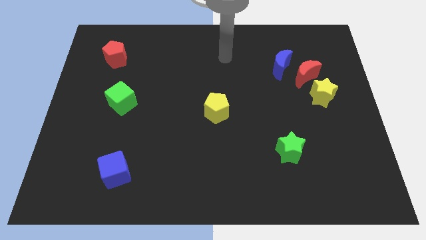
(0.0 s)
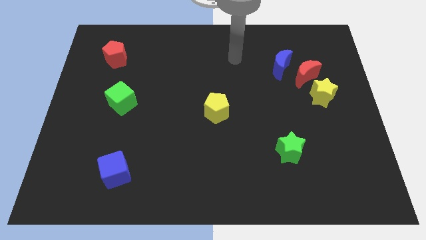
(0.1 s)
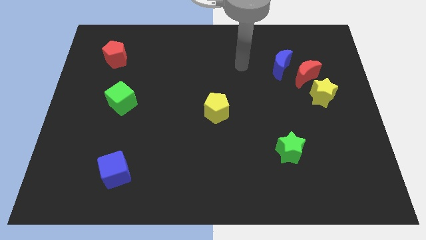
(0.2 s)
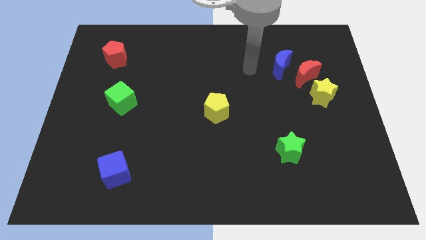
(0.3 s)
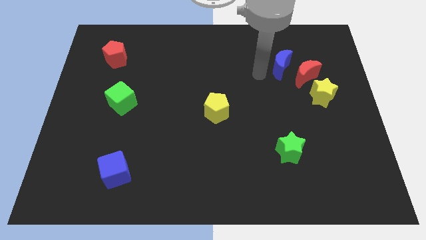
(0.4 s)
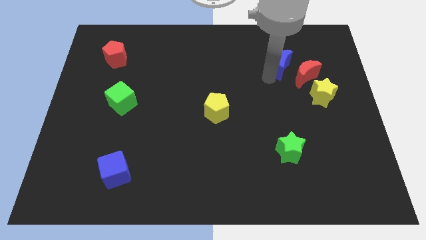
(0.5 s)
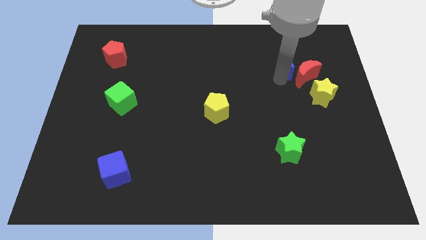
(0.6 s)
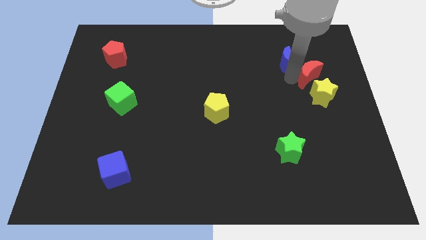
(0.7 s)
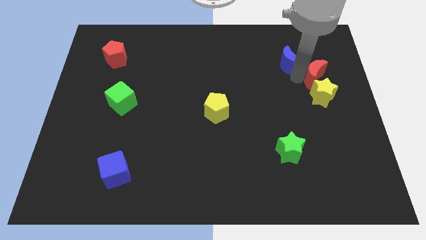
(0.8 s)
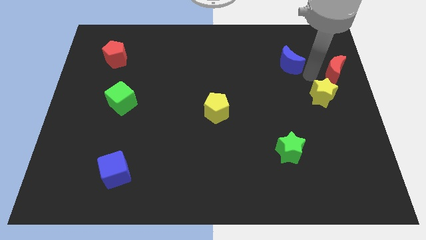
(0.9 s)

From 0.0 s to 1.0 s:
separate the blue moon from the red moon

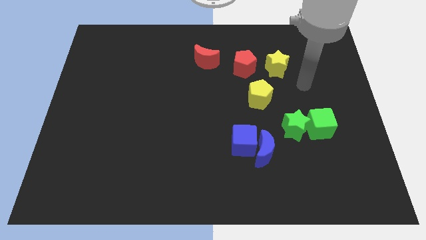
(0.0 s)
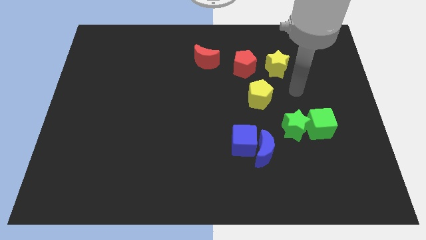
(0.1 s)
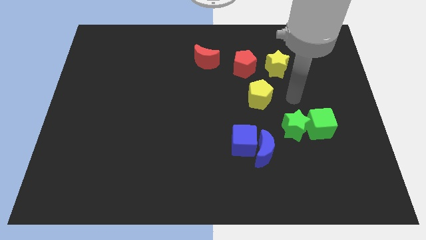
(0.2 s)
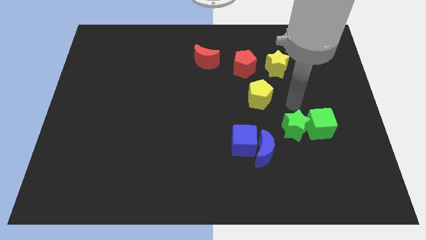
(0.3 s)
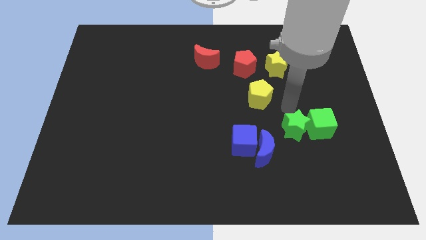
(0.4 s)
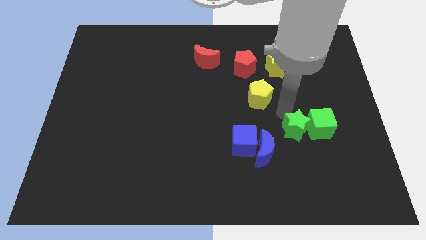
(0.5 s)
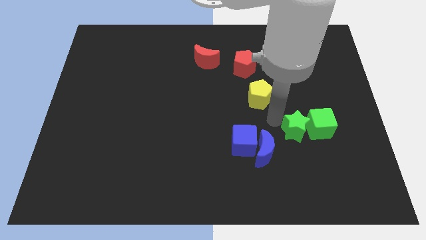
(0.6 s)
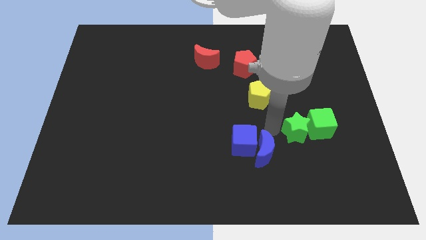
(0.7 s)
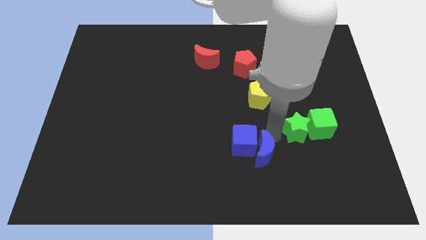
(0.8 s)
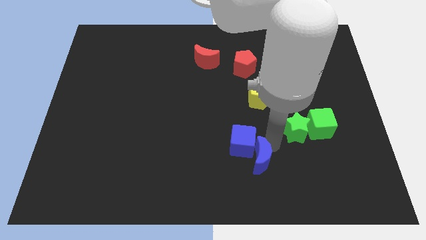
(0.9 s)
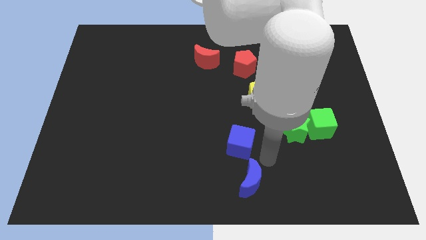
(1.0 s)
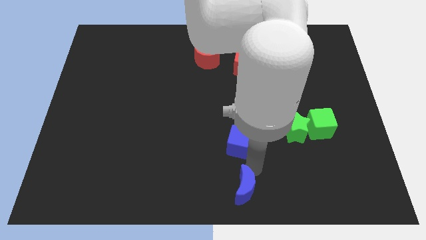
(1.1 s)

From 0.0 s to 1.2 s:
separate the blue cube from the blue moon

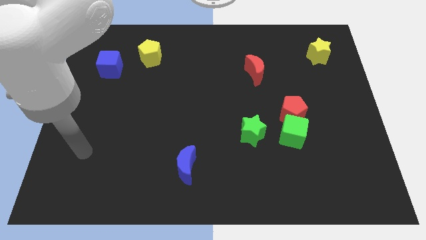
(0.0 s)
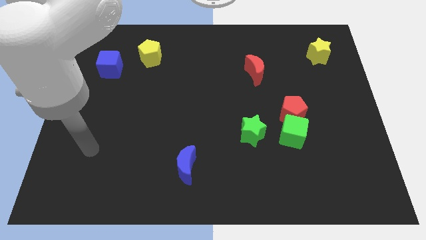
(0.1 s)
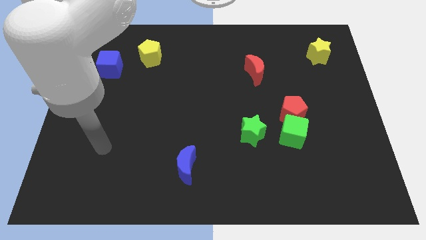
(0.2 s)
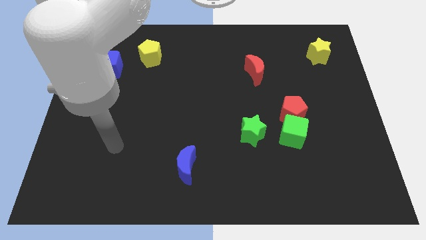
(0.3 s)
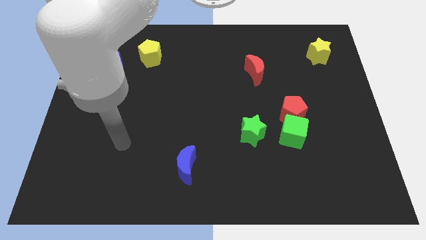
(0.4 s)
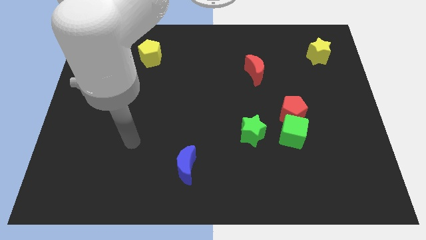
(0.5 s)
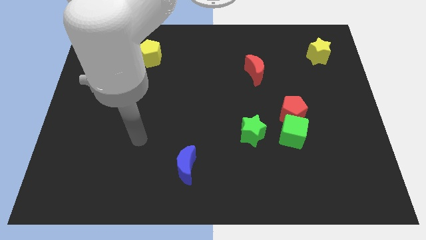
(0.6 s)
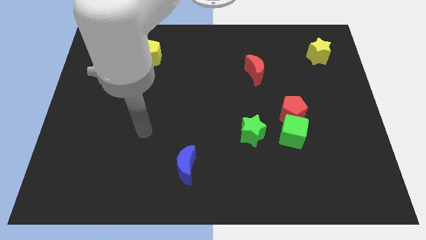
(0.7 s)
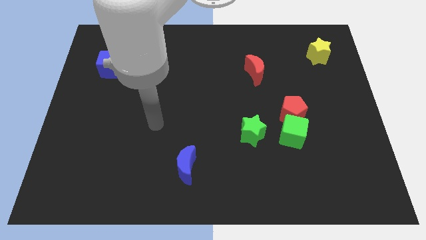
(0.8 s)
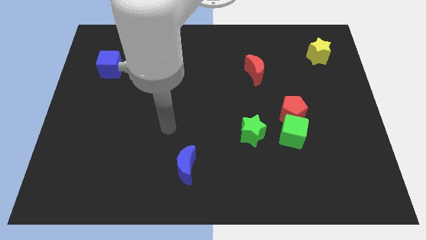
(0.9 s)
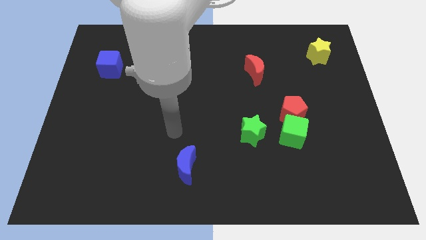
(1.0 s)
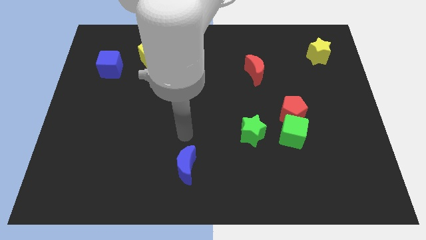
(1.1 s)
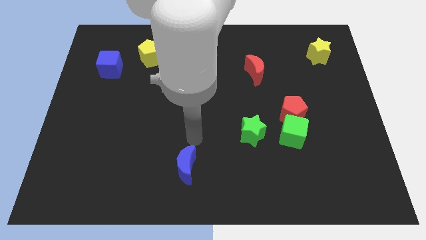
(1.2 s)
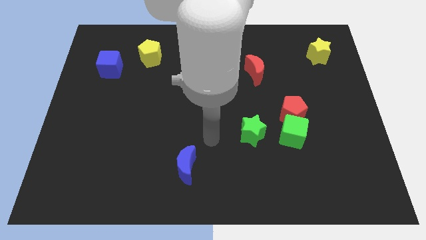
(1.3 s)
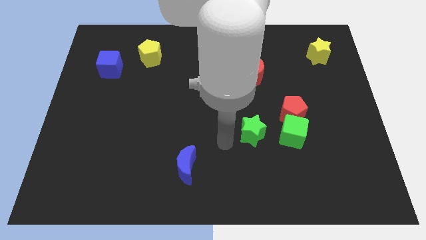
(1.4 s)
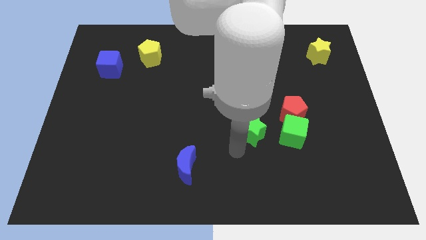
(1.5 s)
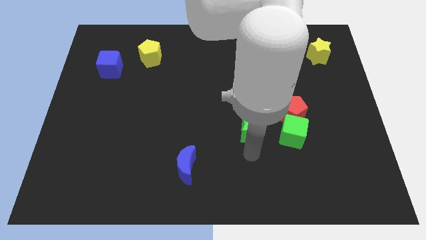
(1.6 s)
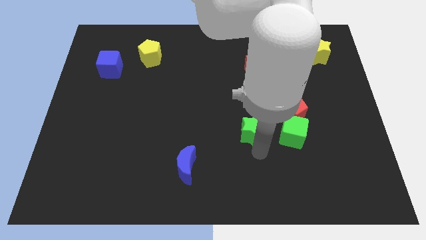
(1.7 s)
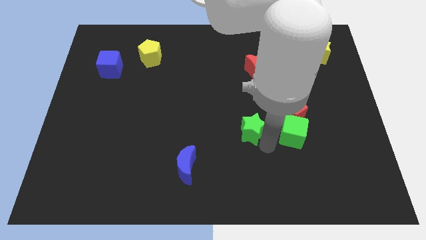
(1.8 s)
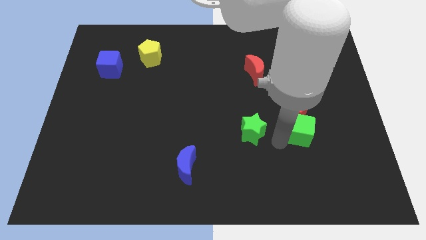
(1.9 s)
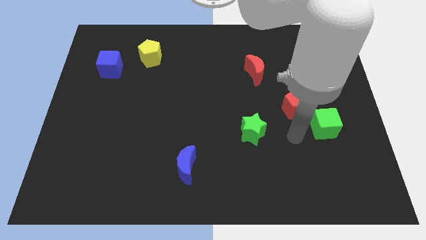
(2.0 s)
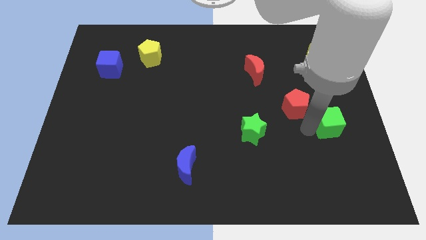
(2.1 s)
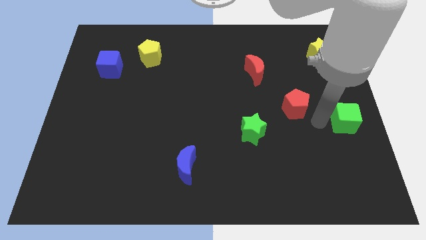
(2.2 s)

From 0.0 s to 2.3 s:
separate the red pentagon from the green cube

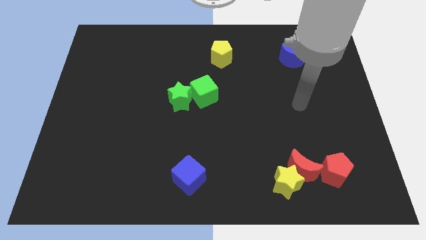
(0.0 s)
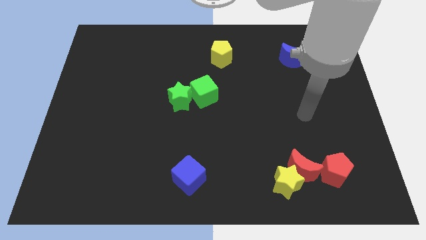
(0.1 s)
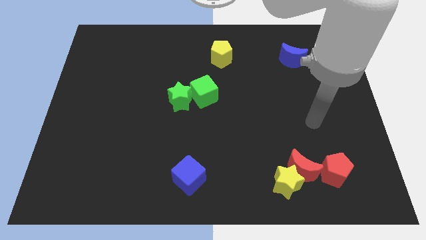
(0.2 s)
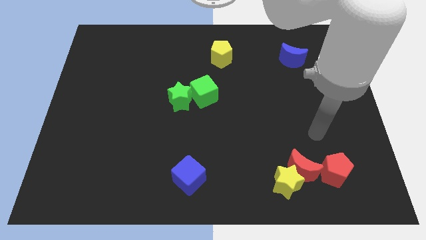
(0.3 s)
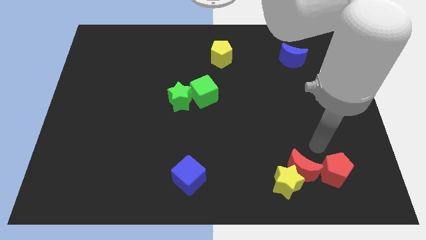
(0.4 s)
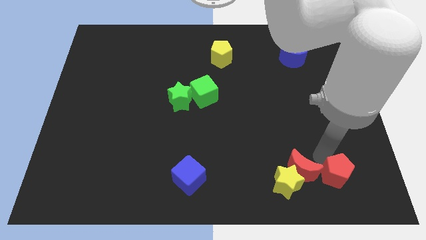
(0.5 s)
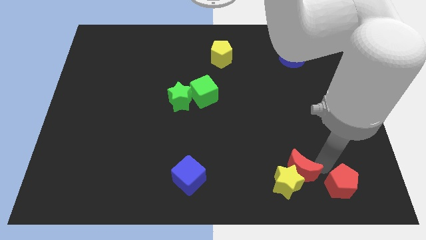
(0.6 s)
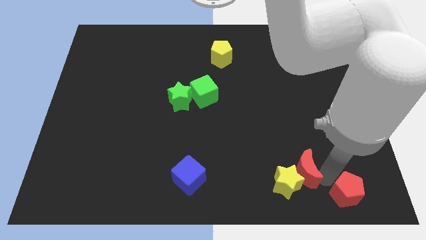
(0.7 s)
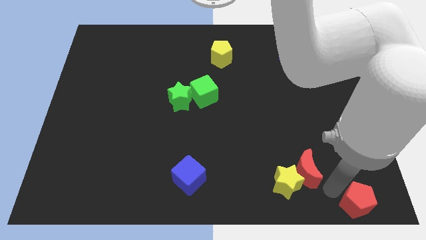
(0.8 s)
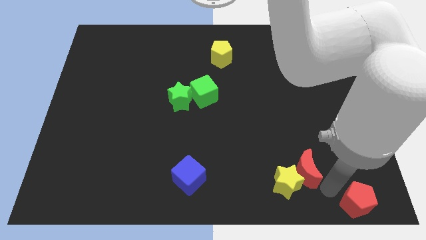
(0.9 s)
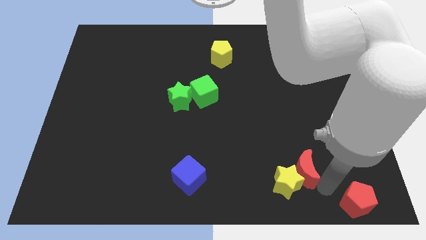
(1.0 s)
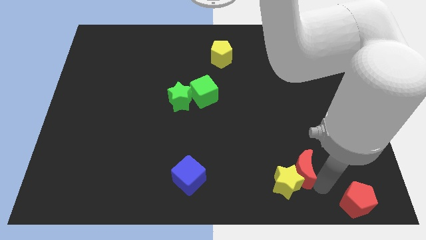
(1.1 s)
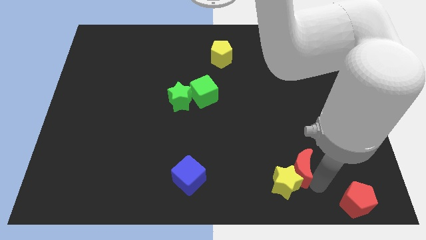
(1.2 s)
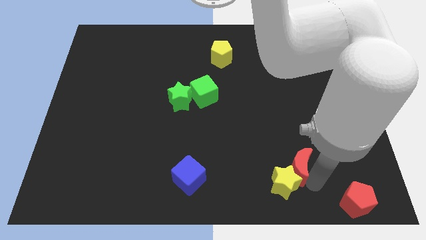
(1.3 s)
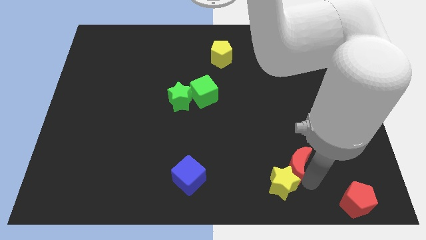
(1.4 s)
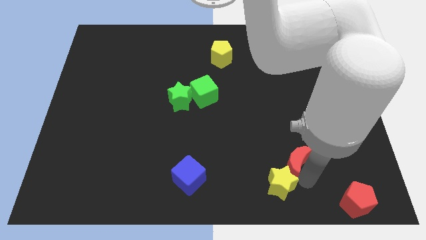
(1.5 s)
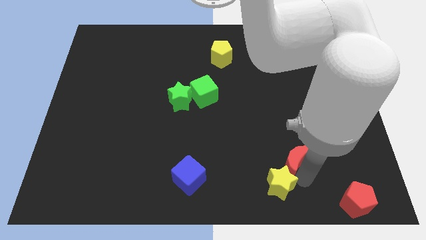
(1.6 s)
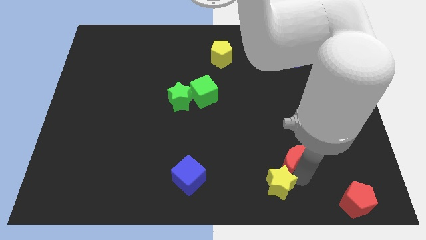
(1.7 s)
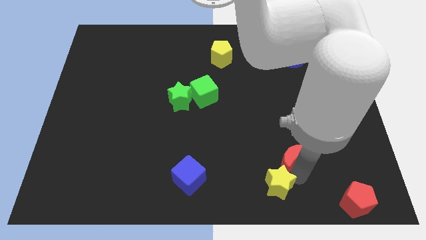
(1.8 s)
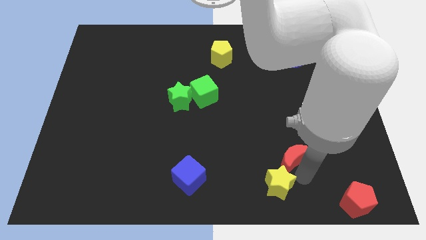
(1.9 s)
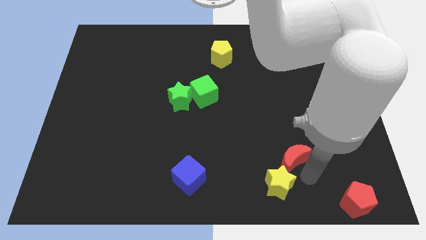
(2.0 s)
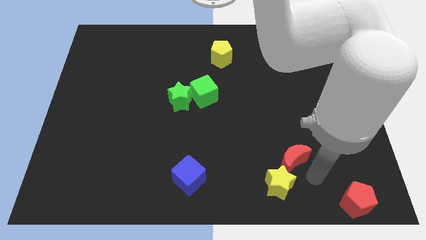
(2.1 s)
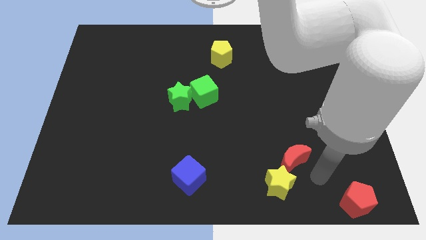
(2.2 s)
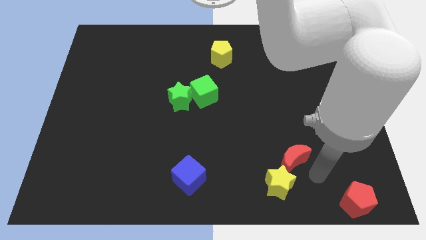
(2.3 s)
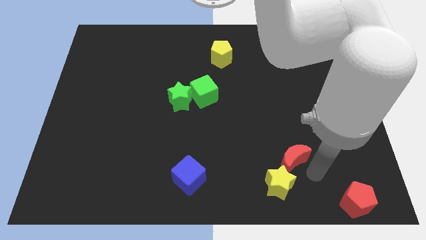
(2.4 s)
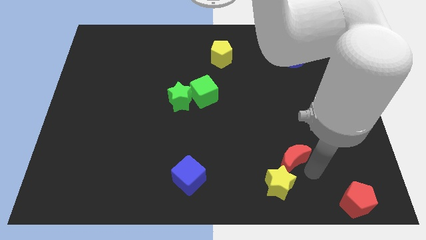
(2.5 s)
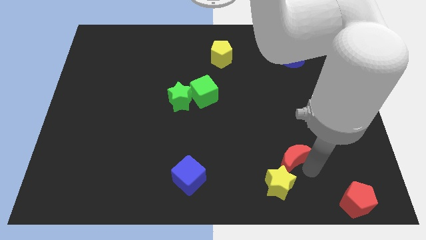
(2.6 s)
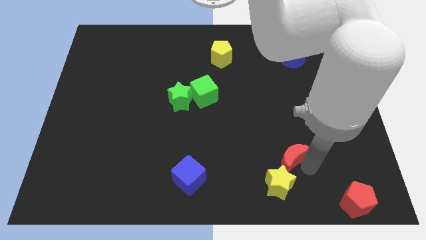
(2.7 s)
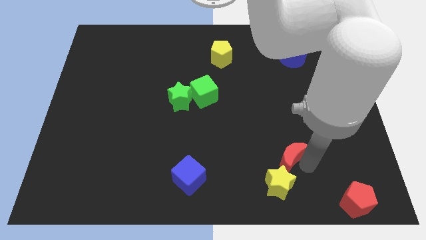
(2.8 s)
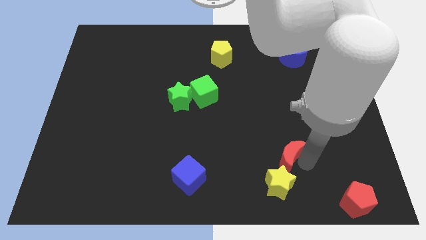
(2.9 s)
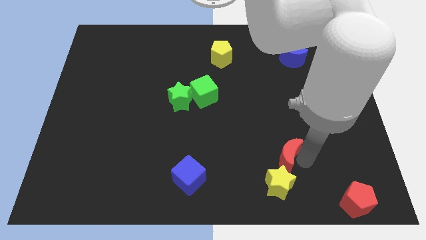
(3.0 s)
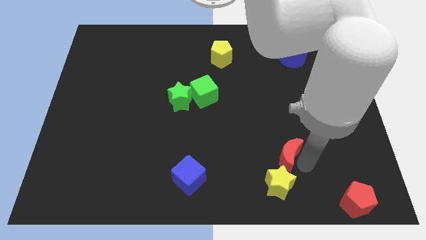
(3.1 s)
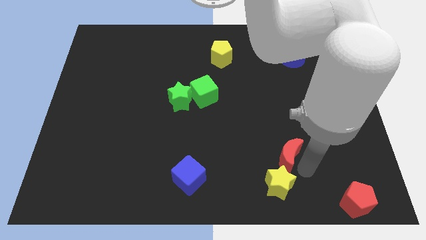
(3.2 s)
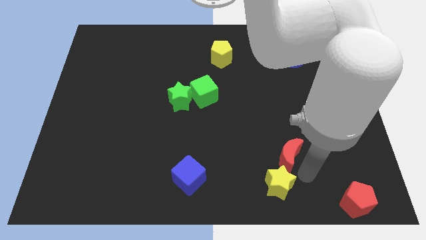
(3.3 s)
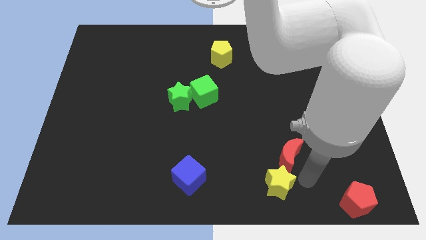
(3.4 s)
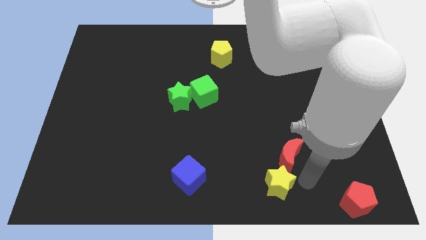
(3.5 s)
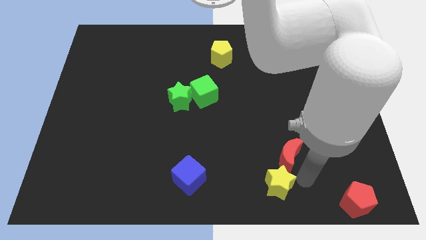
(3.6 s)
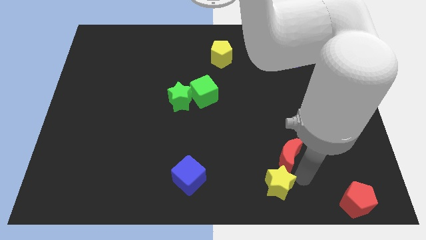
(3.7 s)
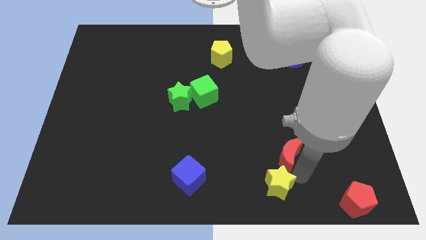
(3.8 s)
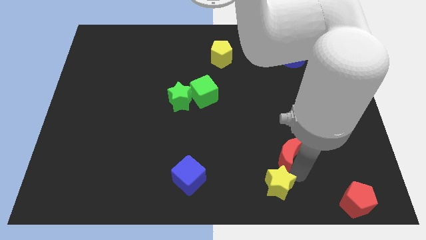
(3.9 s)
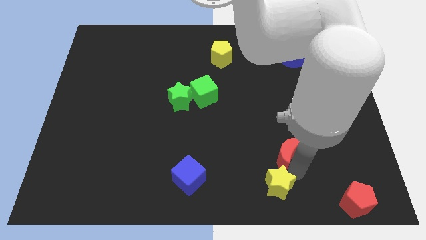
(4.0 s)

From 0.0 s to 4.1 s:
pull the red moon apart from the yellow star and red pentagon

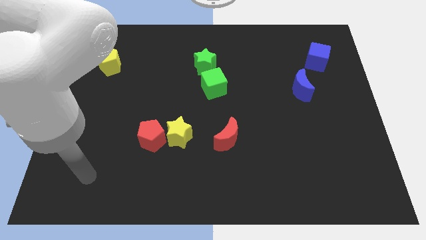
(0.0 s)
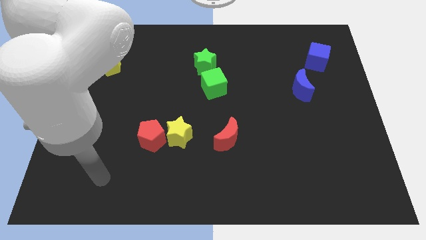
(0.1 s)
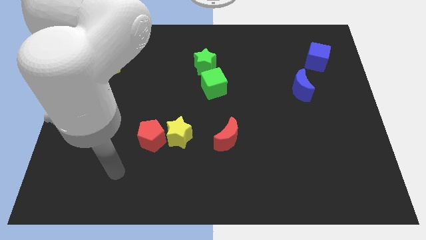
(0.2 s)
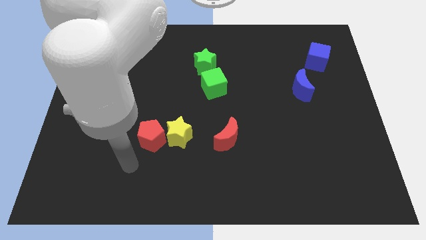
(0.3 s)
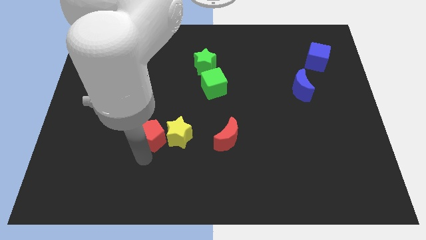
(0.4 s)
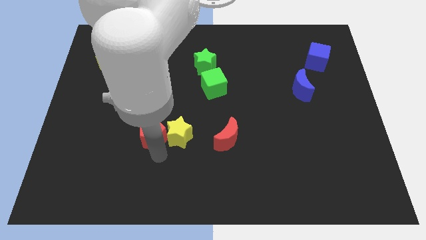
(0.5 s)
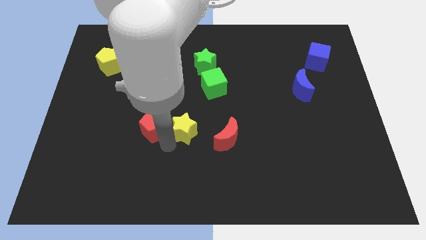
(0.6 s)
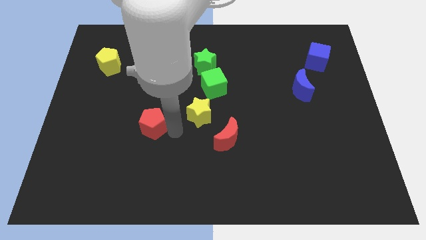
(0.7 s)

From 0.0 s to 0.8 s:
separate the red pentagon from the yellow star
